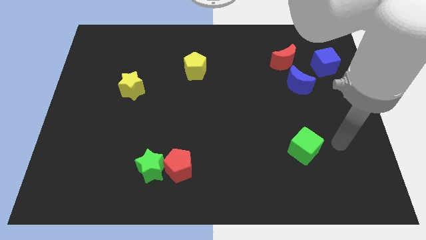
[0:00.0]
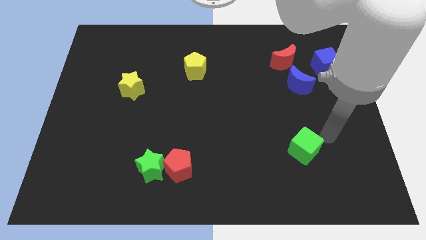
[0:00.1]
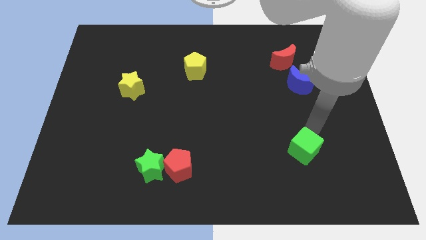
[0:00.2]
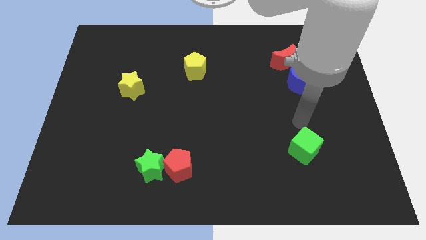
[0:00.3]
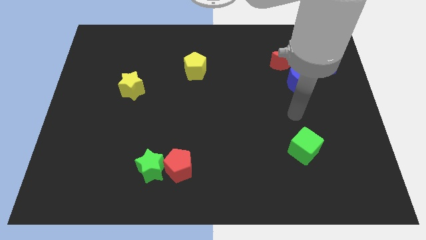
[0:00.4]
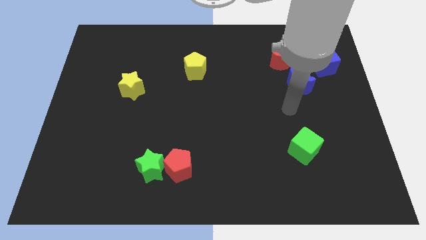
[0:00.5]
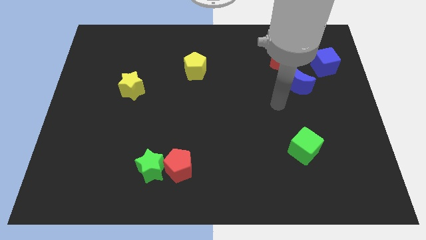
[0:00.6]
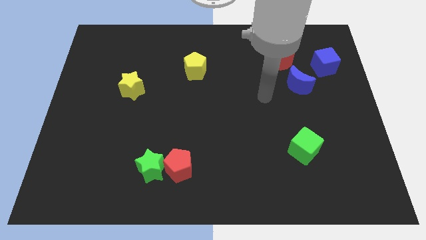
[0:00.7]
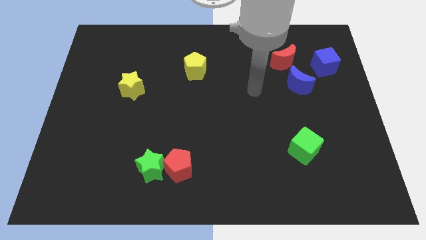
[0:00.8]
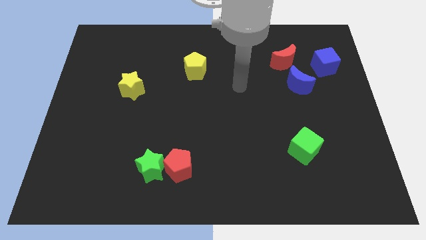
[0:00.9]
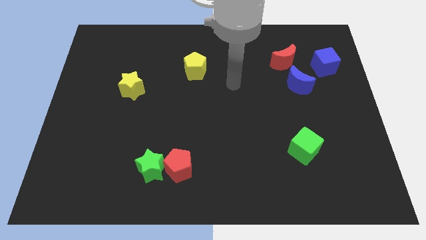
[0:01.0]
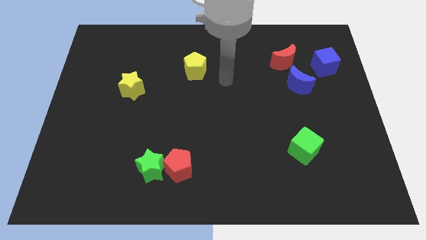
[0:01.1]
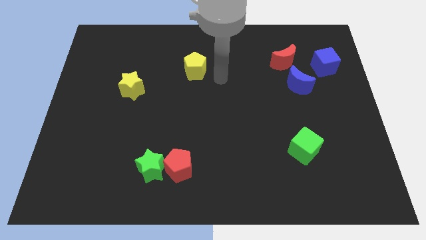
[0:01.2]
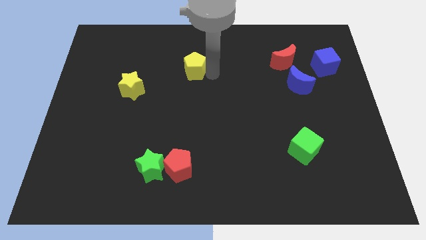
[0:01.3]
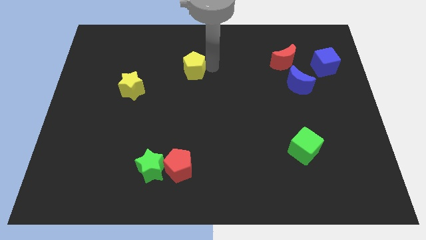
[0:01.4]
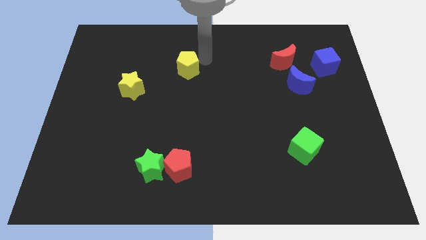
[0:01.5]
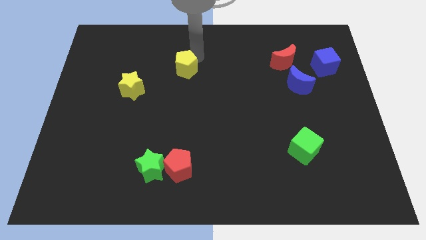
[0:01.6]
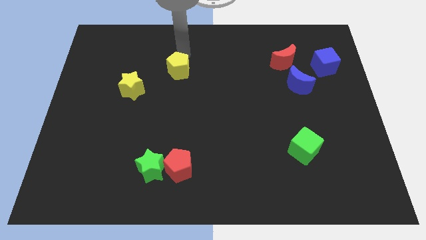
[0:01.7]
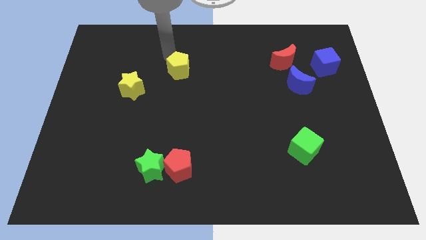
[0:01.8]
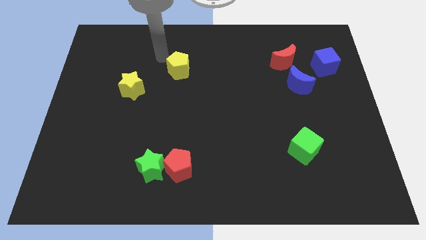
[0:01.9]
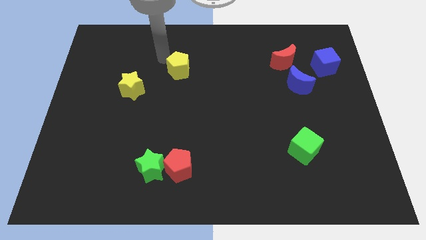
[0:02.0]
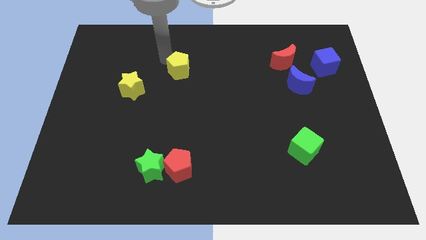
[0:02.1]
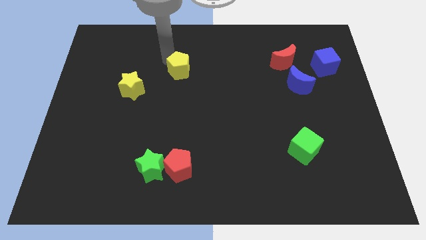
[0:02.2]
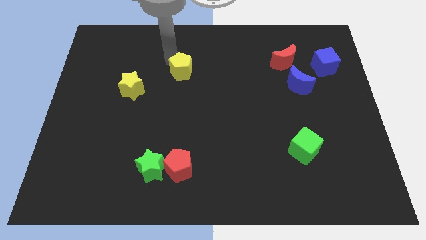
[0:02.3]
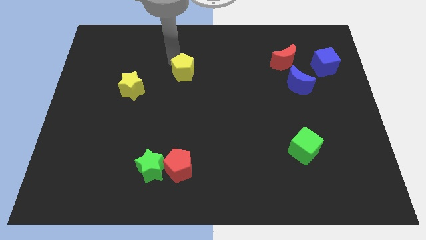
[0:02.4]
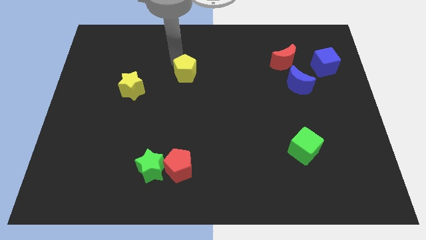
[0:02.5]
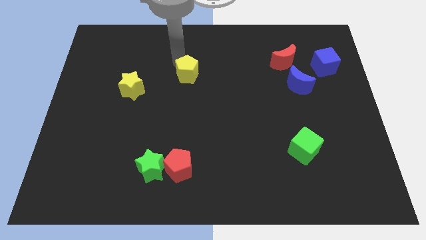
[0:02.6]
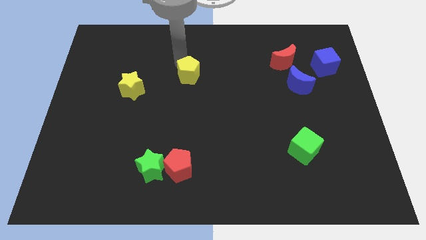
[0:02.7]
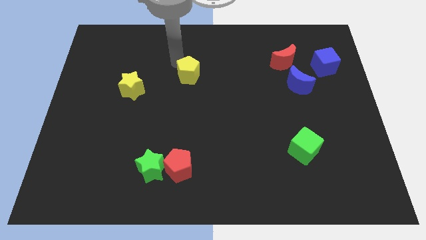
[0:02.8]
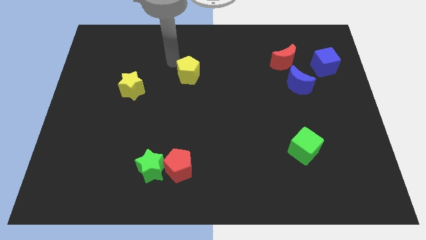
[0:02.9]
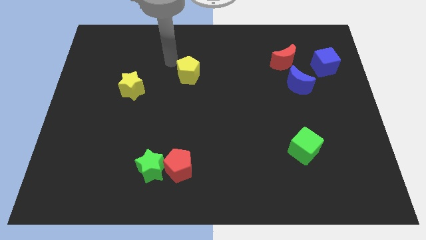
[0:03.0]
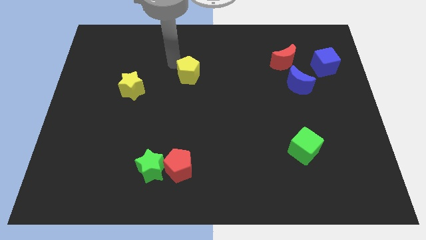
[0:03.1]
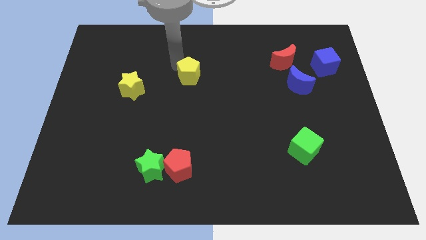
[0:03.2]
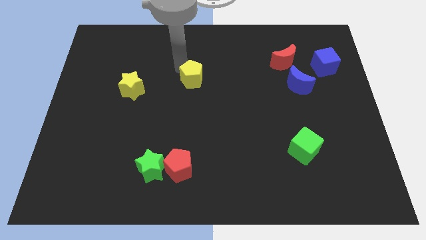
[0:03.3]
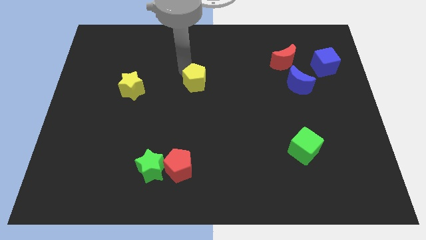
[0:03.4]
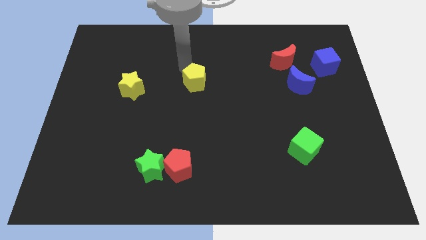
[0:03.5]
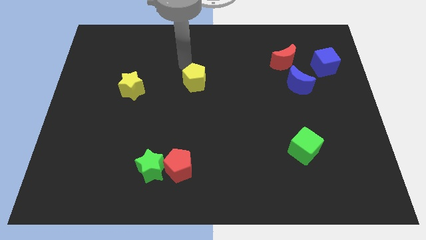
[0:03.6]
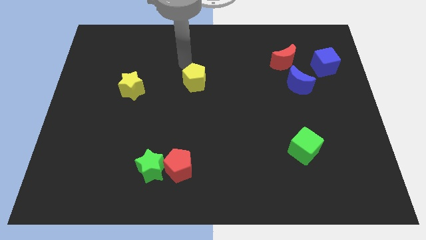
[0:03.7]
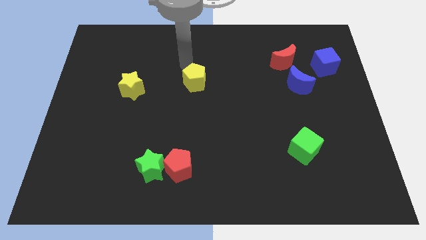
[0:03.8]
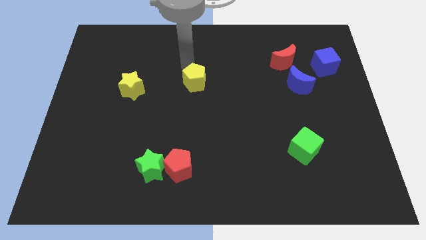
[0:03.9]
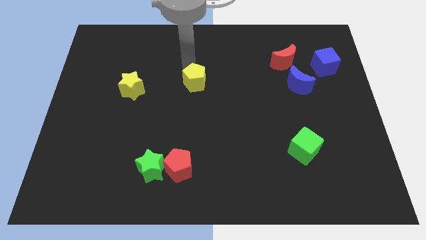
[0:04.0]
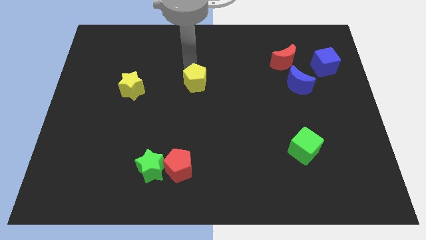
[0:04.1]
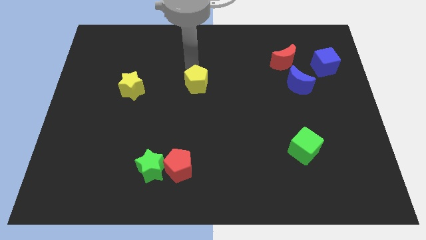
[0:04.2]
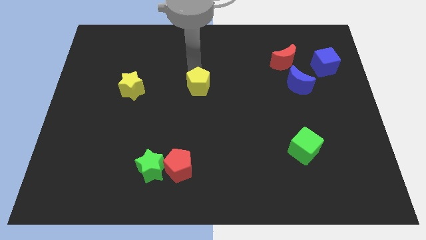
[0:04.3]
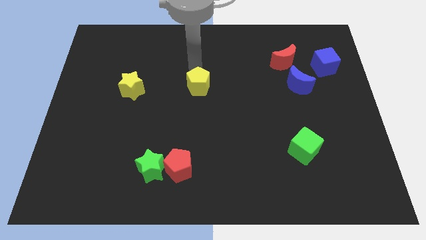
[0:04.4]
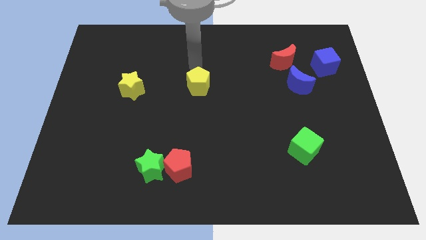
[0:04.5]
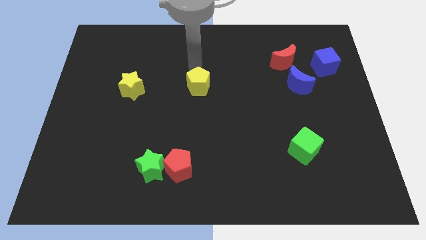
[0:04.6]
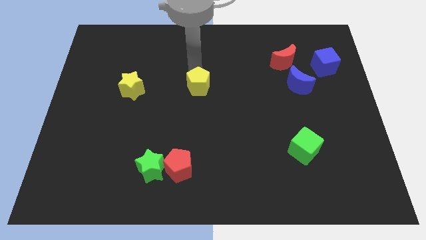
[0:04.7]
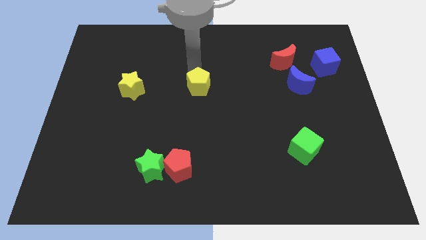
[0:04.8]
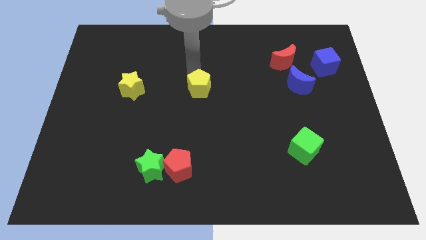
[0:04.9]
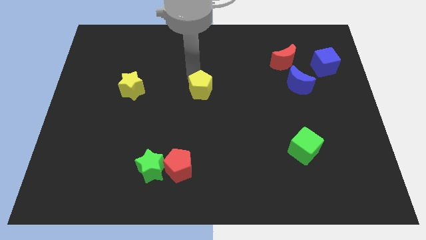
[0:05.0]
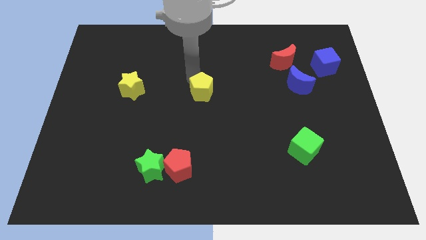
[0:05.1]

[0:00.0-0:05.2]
push the yellow pentagon a little down

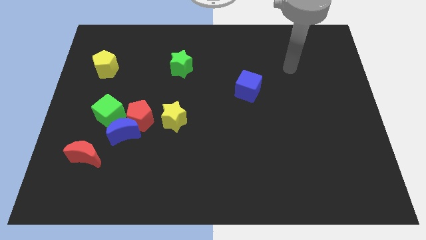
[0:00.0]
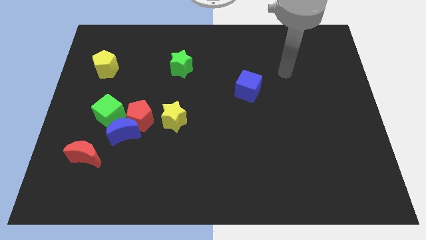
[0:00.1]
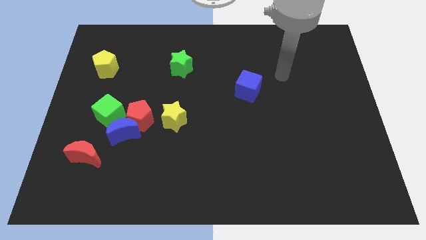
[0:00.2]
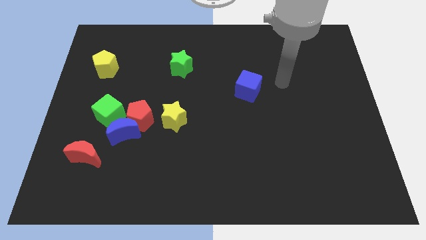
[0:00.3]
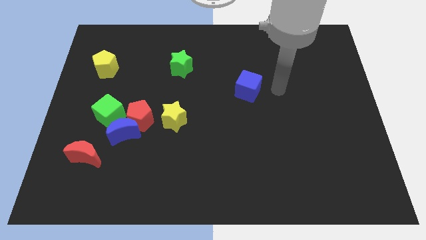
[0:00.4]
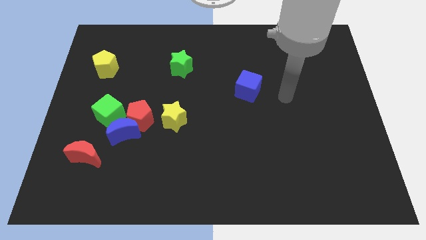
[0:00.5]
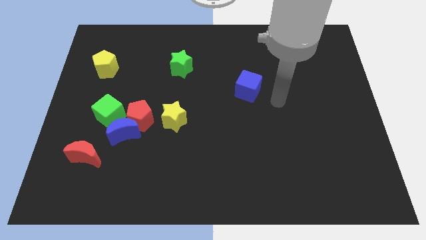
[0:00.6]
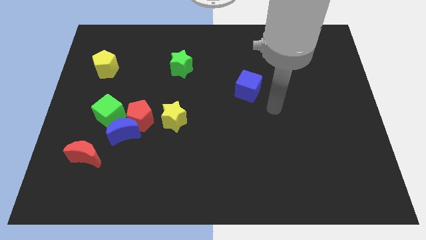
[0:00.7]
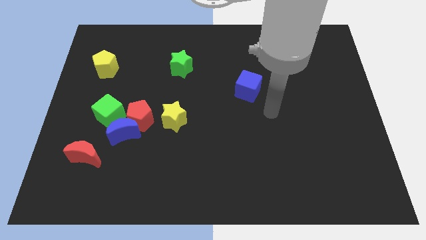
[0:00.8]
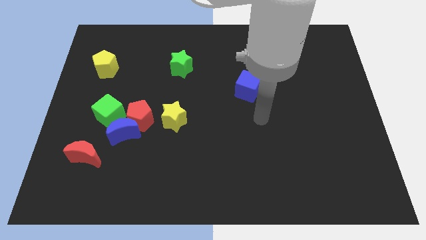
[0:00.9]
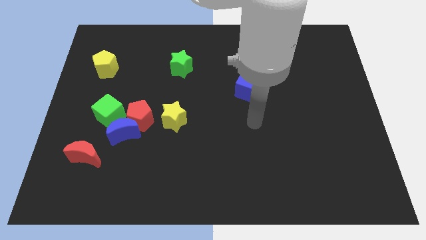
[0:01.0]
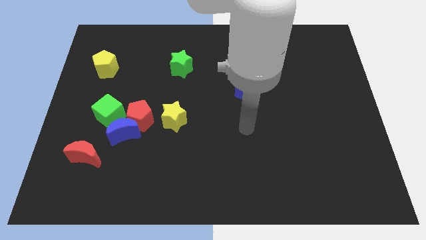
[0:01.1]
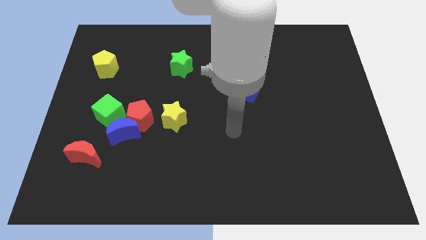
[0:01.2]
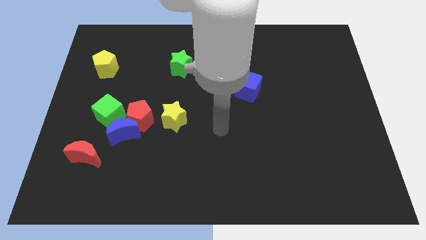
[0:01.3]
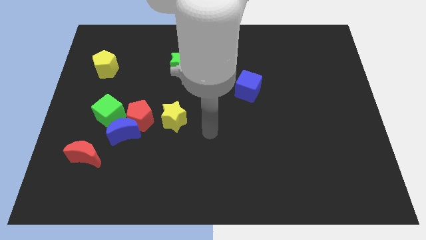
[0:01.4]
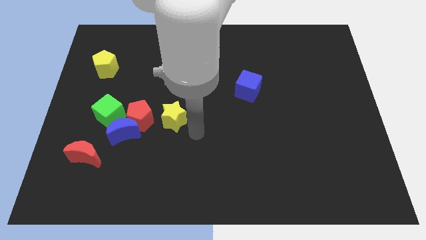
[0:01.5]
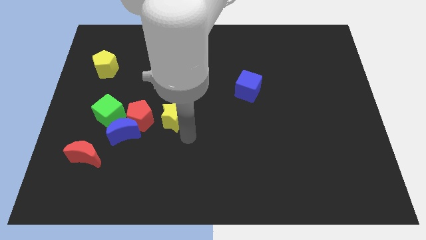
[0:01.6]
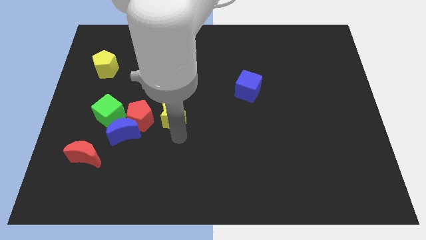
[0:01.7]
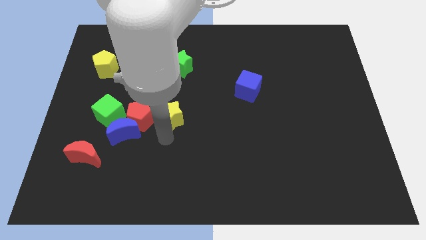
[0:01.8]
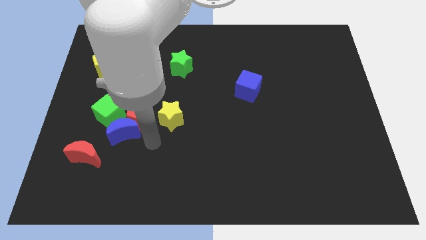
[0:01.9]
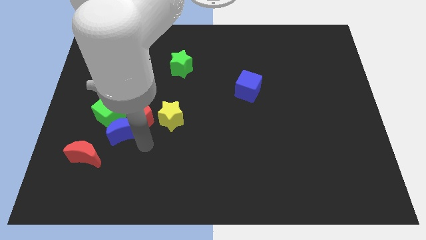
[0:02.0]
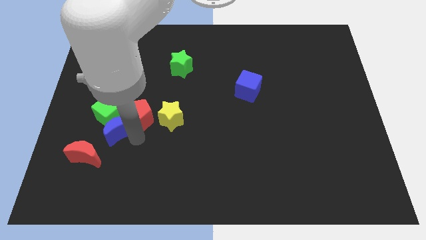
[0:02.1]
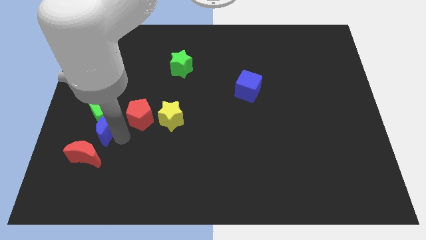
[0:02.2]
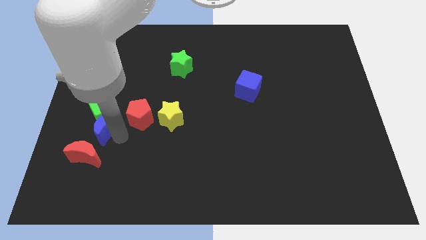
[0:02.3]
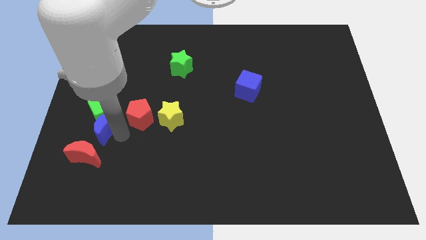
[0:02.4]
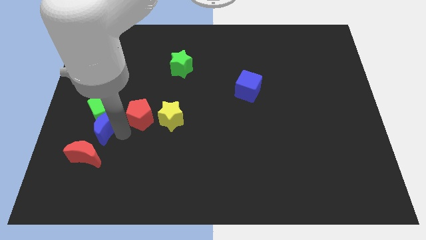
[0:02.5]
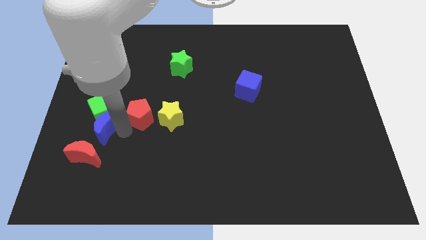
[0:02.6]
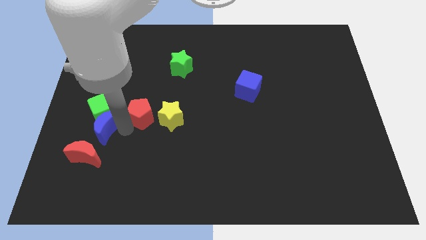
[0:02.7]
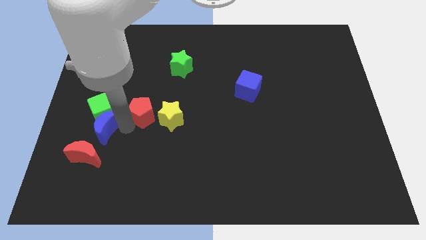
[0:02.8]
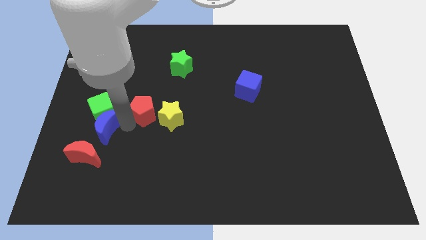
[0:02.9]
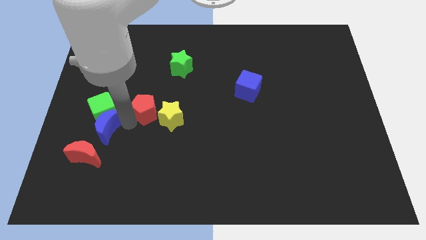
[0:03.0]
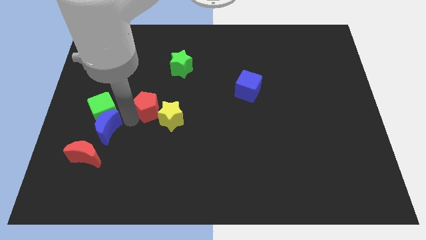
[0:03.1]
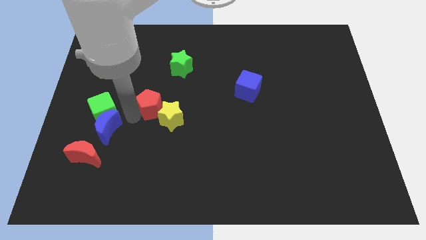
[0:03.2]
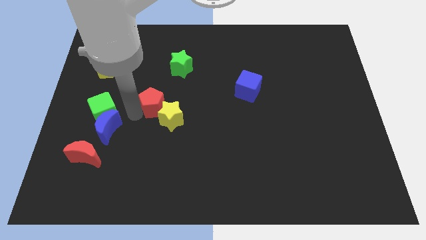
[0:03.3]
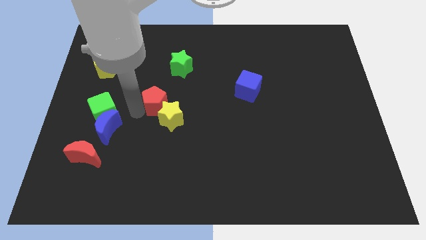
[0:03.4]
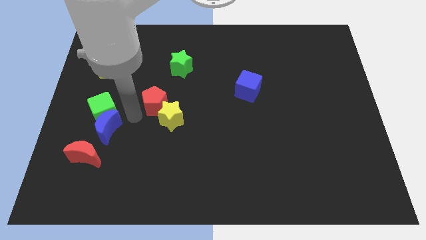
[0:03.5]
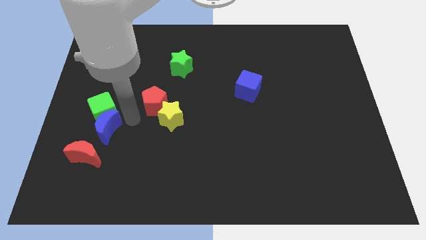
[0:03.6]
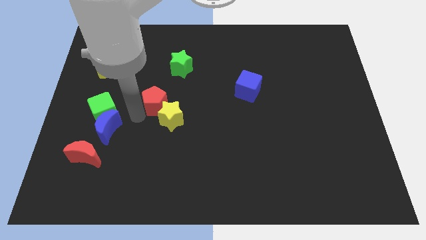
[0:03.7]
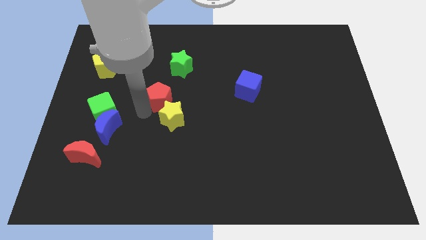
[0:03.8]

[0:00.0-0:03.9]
slide the red pentagon somewhat upwards and then right
